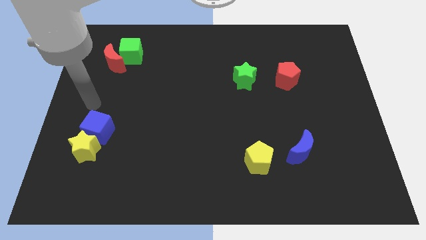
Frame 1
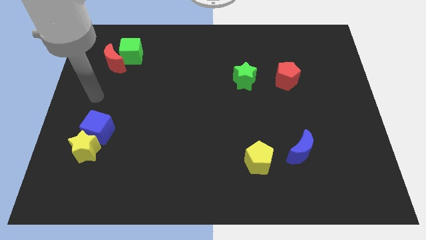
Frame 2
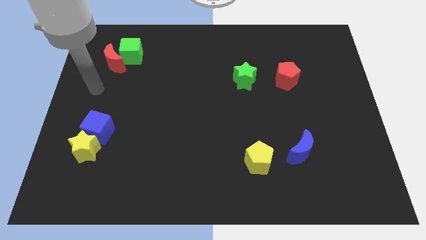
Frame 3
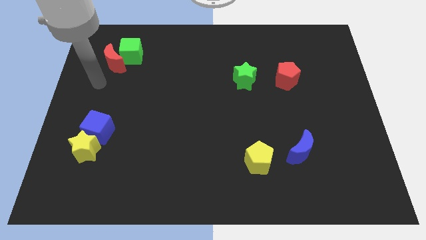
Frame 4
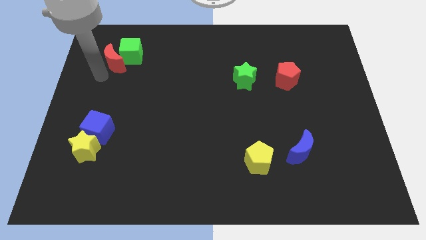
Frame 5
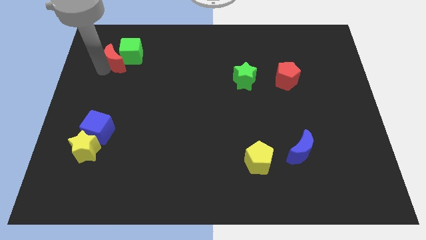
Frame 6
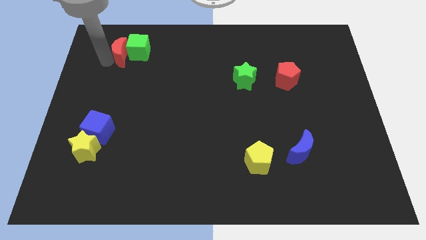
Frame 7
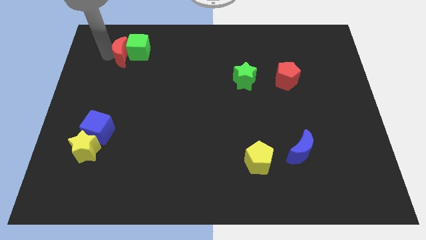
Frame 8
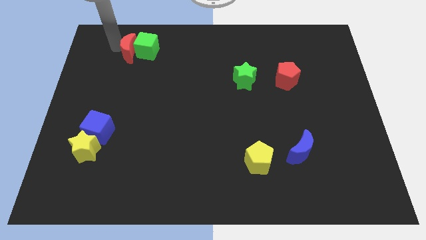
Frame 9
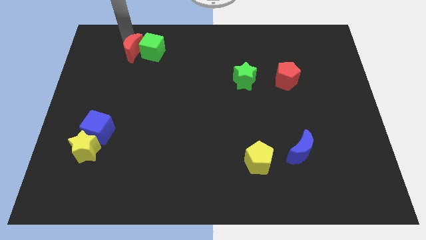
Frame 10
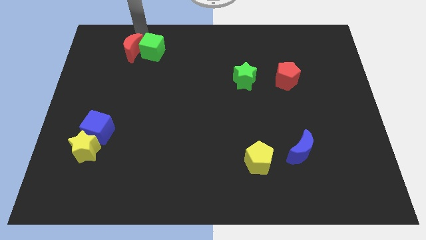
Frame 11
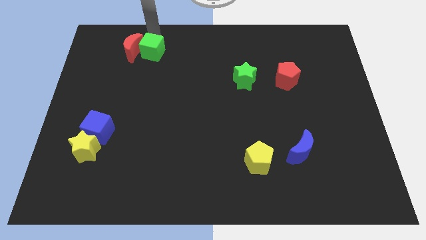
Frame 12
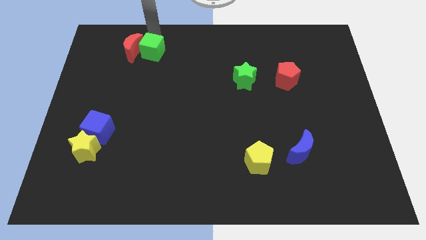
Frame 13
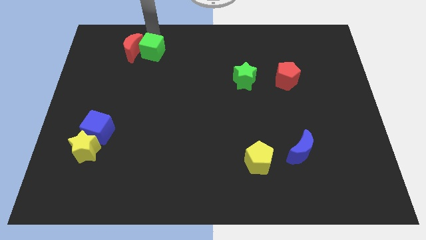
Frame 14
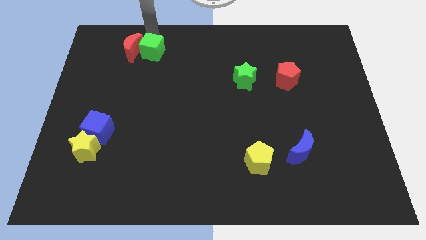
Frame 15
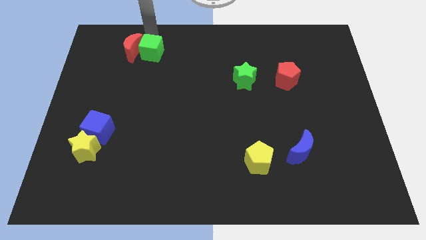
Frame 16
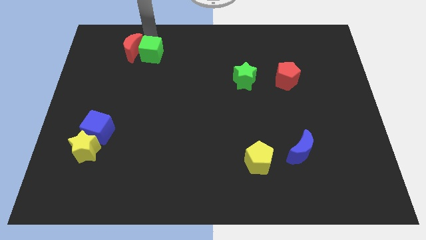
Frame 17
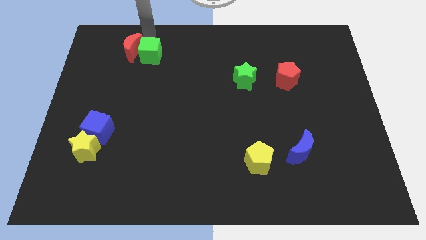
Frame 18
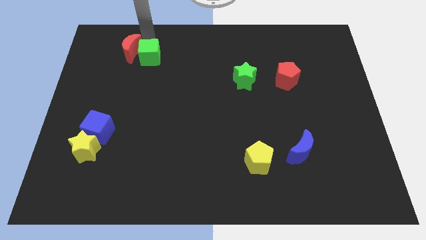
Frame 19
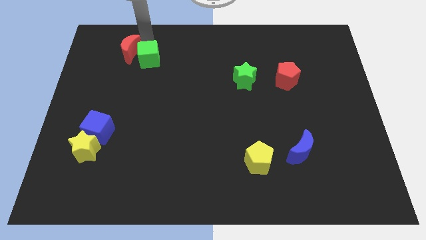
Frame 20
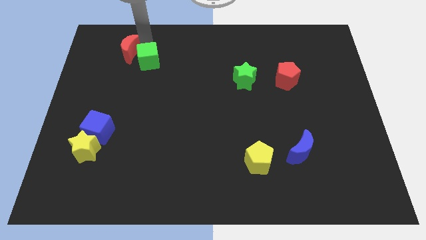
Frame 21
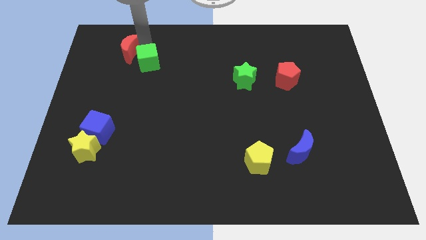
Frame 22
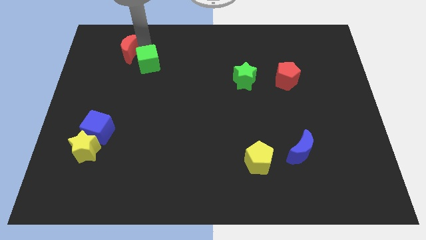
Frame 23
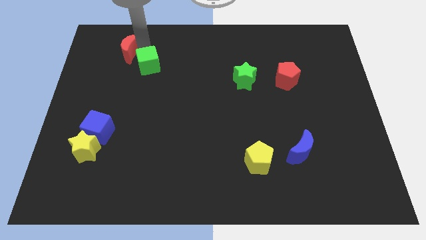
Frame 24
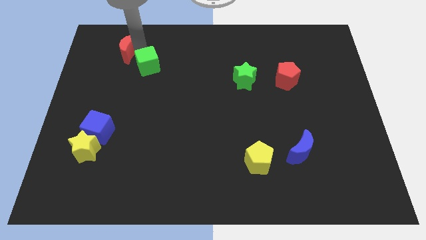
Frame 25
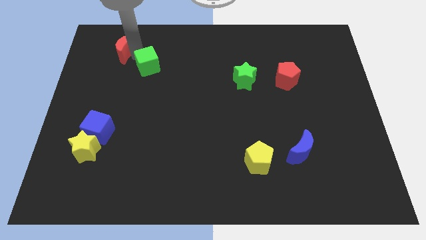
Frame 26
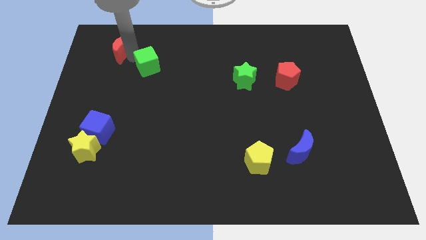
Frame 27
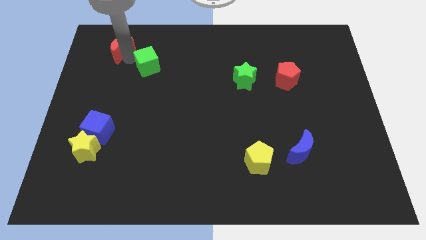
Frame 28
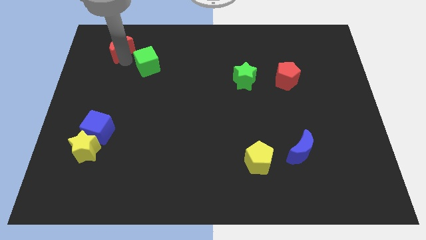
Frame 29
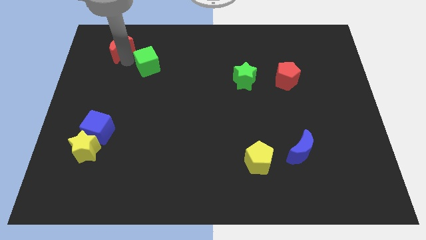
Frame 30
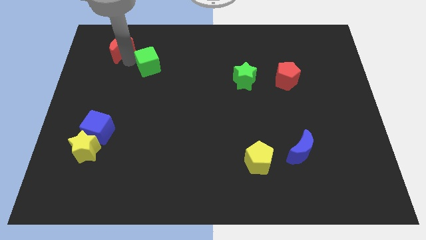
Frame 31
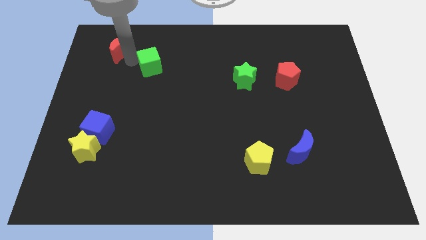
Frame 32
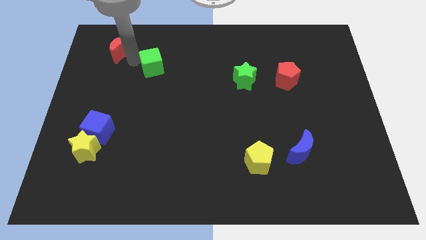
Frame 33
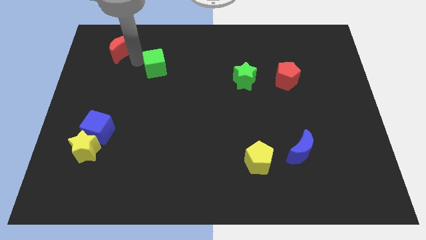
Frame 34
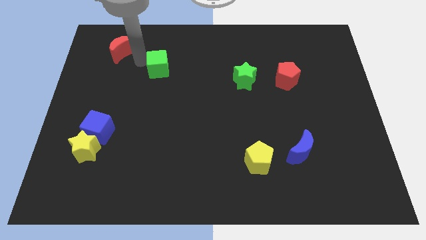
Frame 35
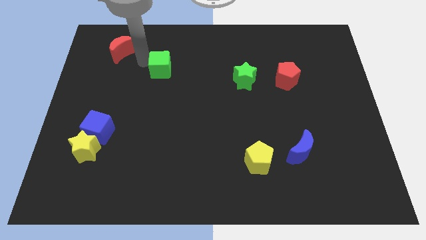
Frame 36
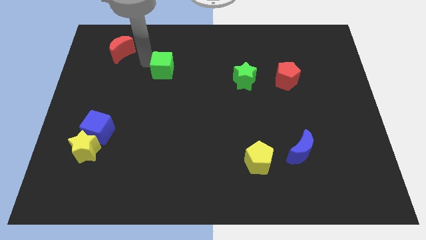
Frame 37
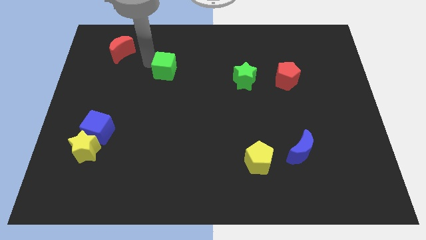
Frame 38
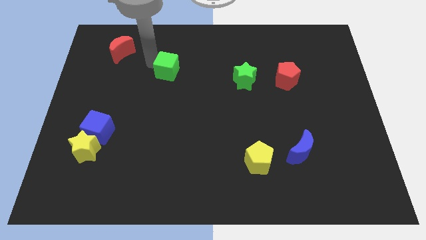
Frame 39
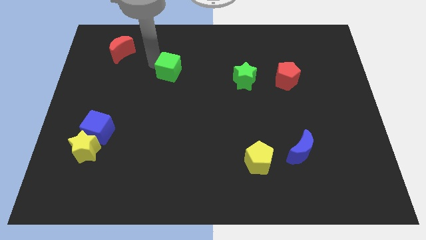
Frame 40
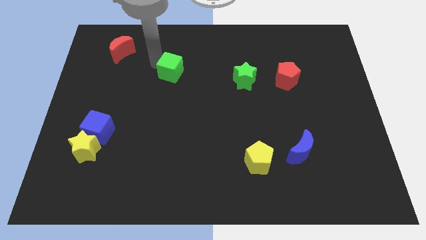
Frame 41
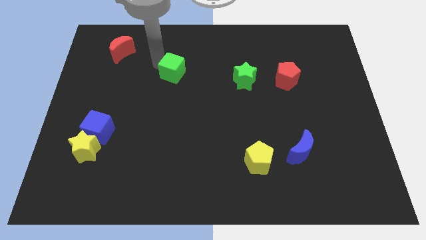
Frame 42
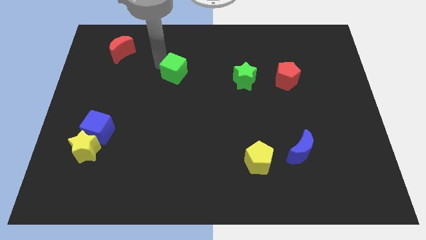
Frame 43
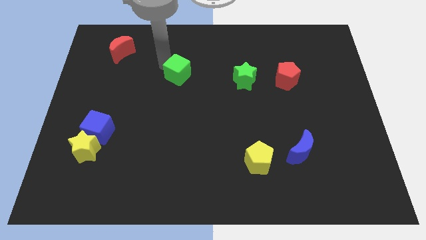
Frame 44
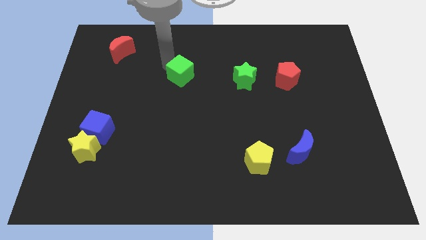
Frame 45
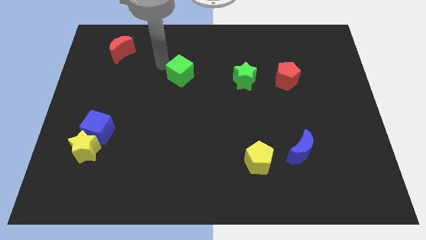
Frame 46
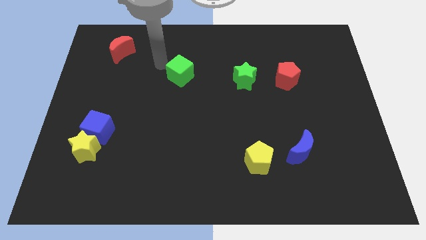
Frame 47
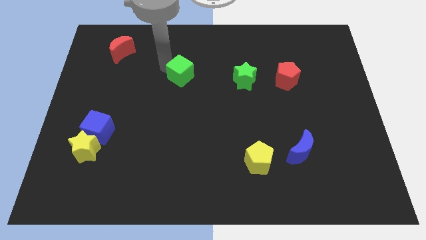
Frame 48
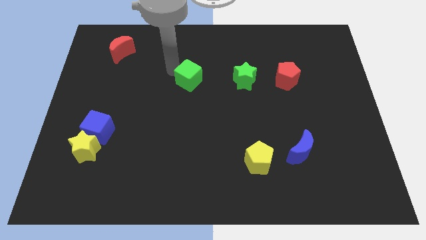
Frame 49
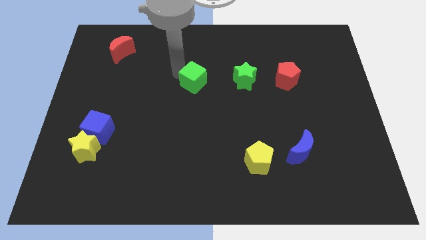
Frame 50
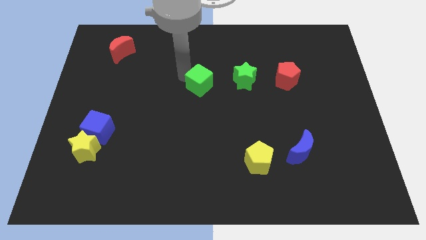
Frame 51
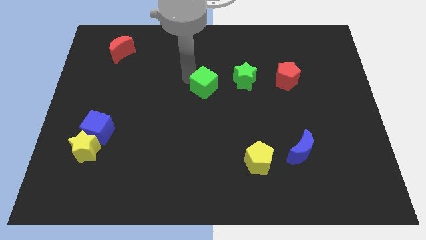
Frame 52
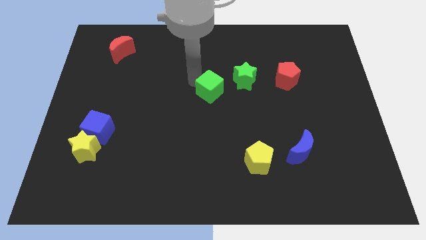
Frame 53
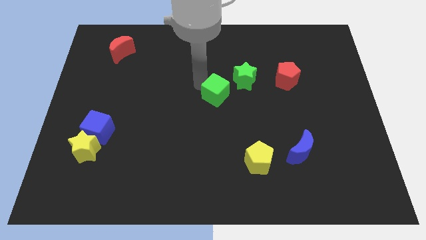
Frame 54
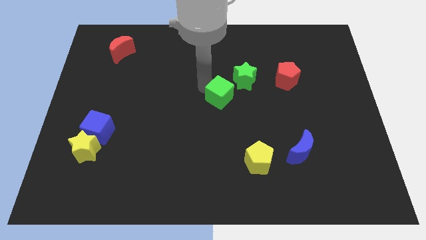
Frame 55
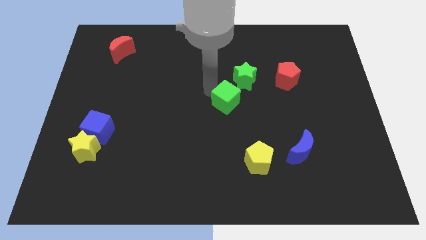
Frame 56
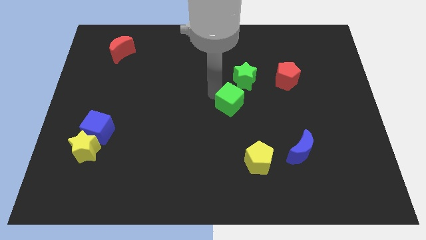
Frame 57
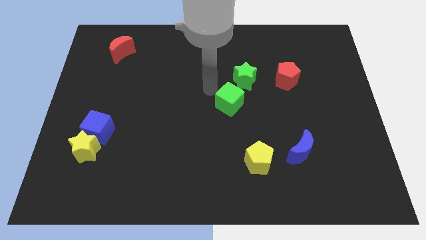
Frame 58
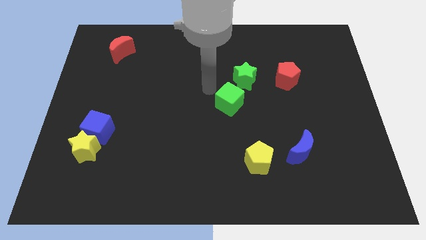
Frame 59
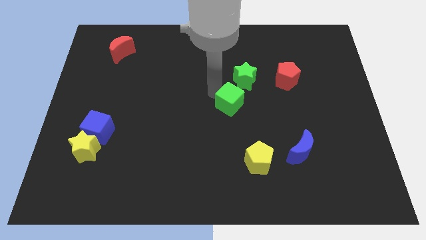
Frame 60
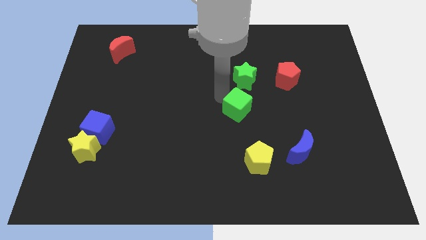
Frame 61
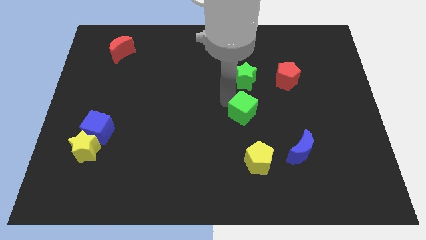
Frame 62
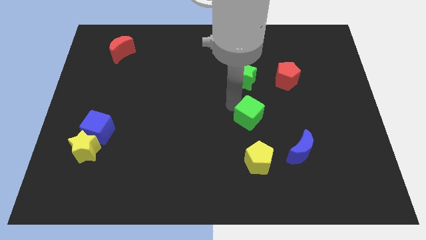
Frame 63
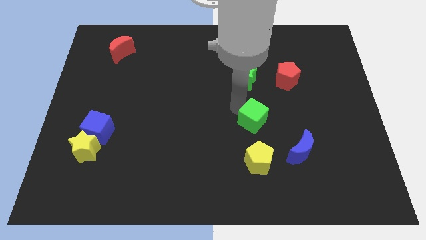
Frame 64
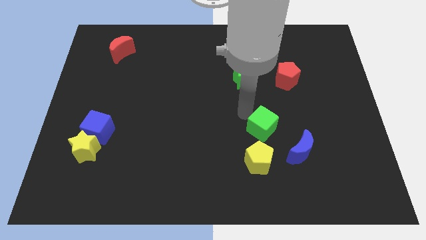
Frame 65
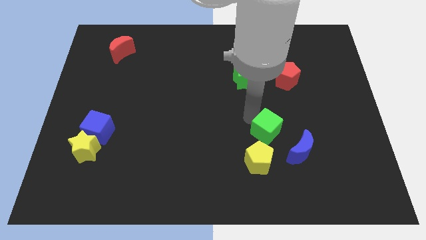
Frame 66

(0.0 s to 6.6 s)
put the green cube to the top right side of the yellow pentagon

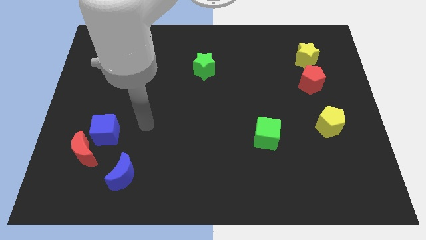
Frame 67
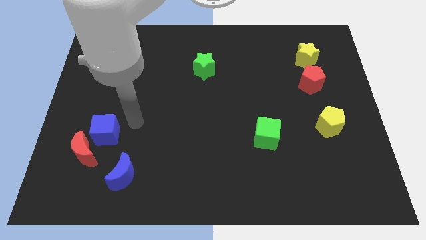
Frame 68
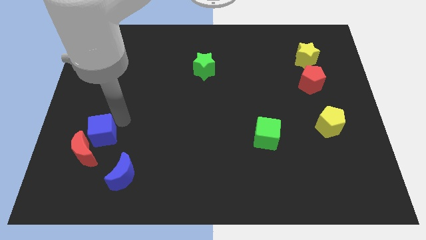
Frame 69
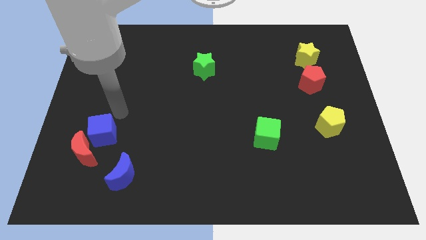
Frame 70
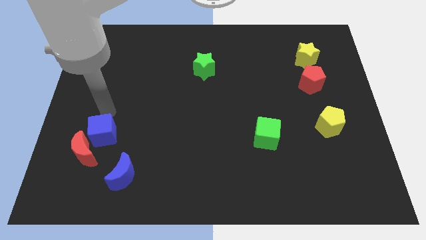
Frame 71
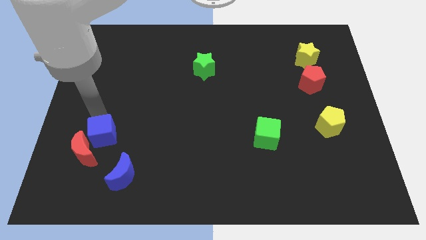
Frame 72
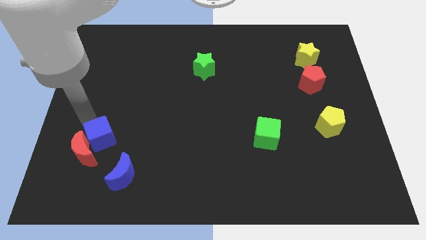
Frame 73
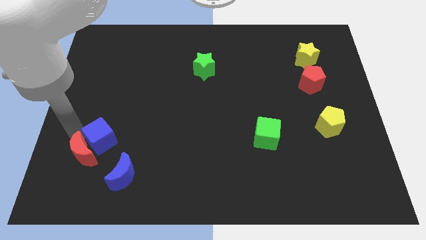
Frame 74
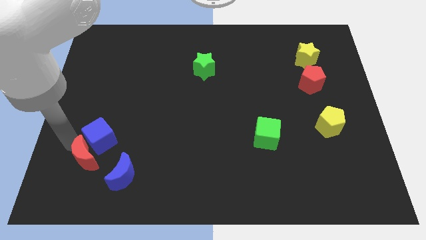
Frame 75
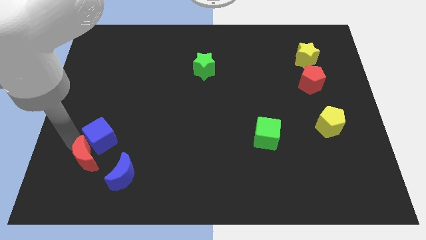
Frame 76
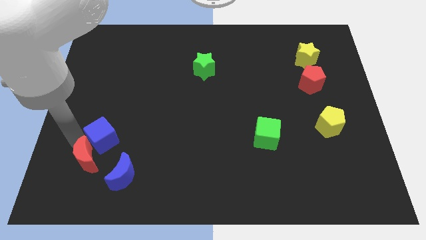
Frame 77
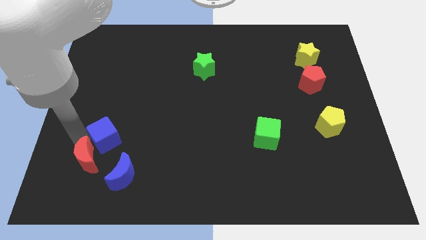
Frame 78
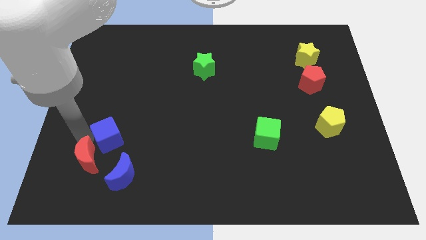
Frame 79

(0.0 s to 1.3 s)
move the blue cube to the top of the blue moon
